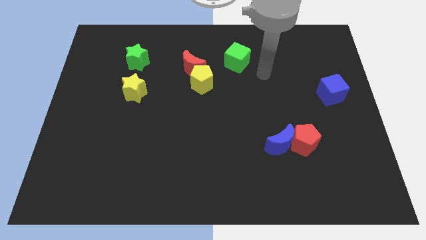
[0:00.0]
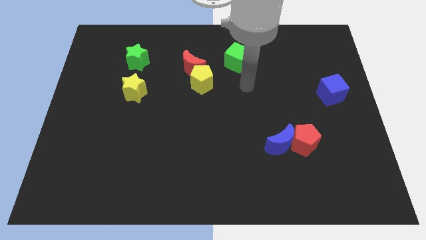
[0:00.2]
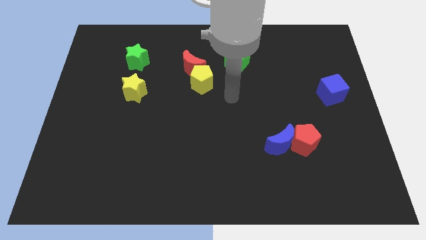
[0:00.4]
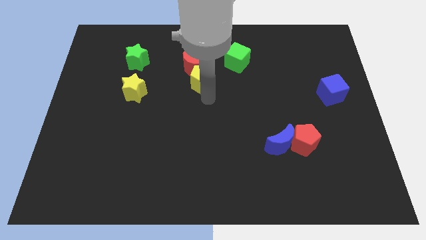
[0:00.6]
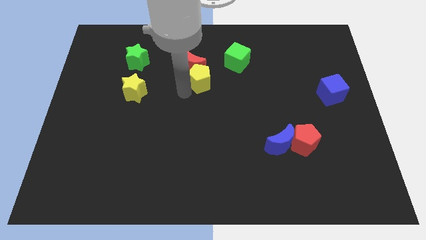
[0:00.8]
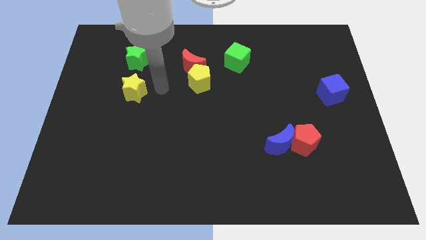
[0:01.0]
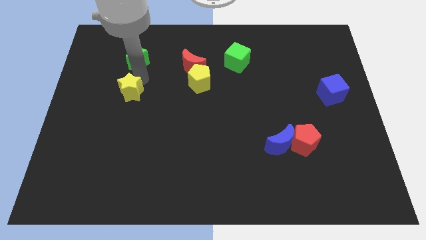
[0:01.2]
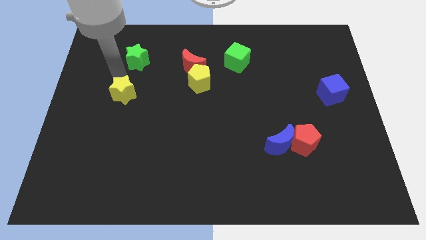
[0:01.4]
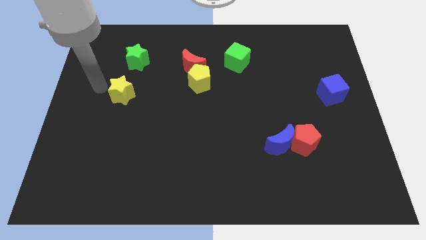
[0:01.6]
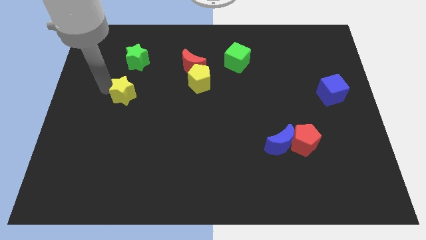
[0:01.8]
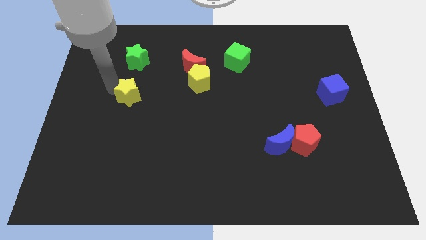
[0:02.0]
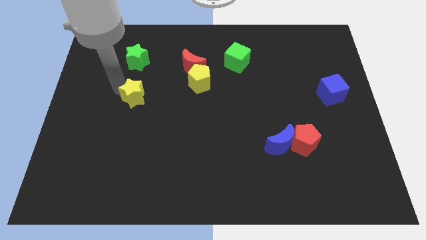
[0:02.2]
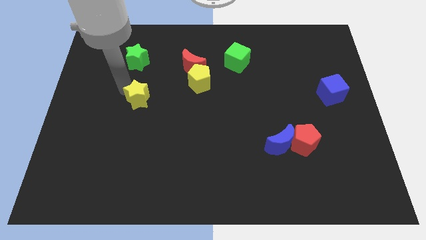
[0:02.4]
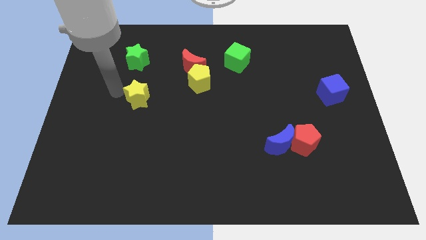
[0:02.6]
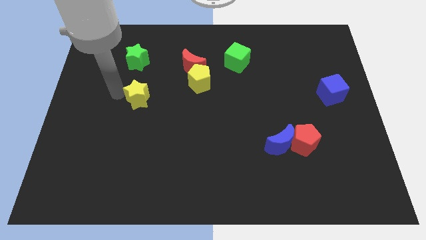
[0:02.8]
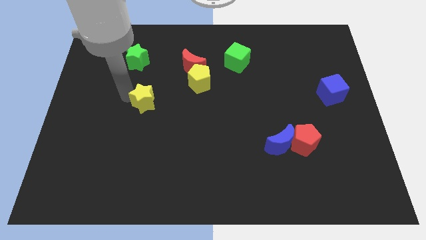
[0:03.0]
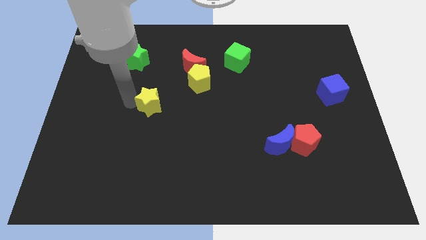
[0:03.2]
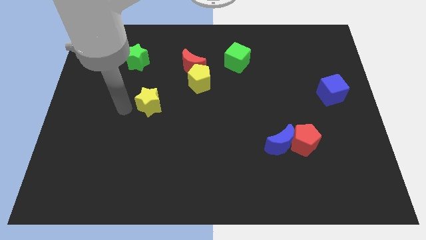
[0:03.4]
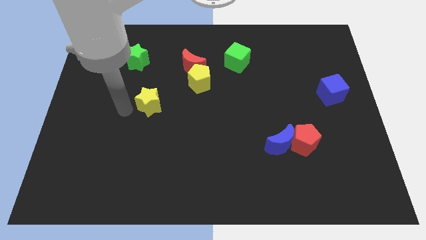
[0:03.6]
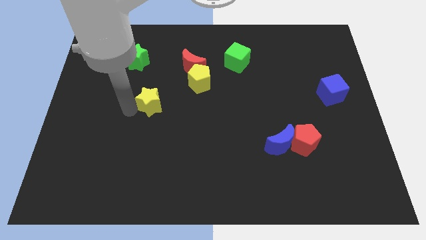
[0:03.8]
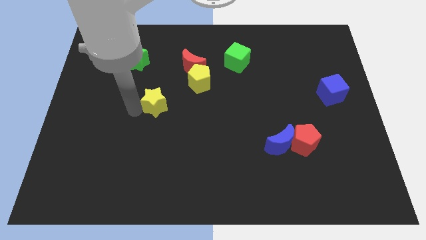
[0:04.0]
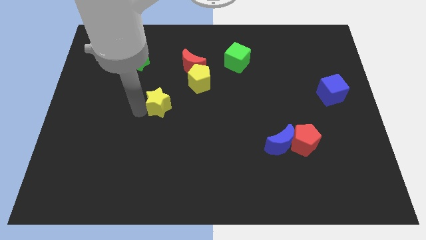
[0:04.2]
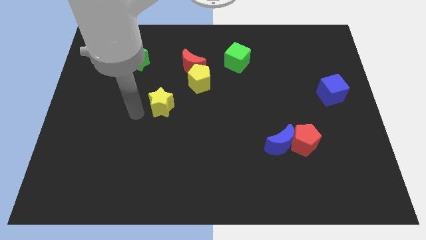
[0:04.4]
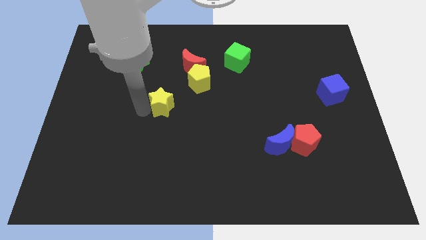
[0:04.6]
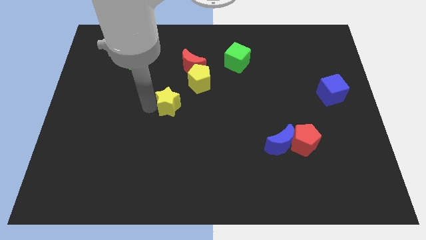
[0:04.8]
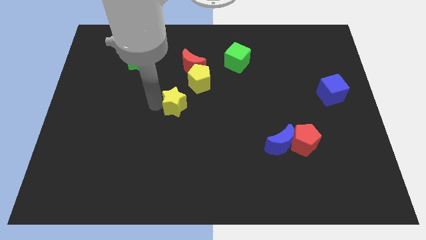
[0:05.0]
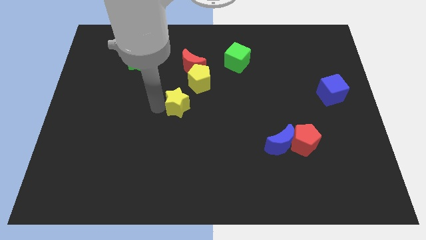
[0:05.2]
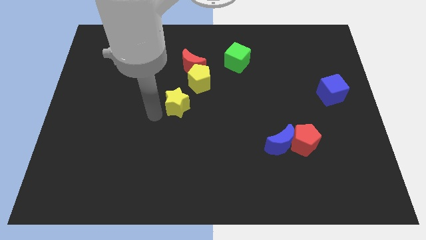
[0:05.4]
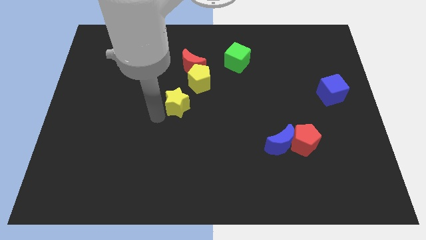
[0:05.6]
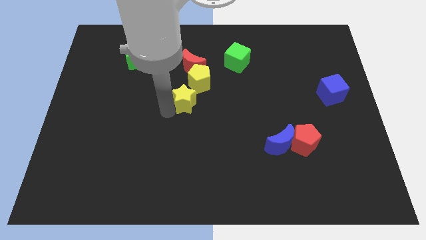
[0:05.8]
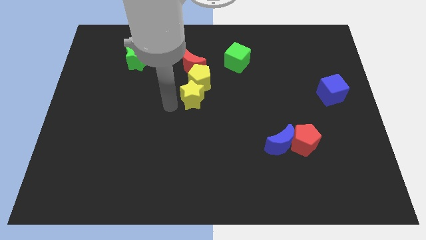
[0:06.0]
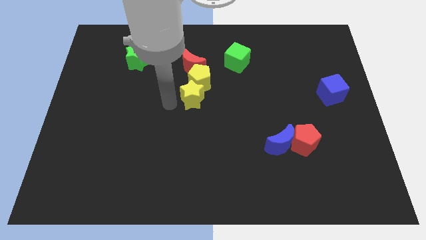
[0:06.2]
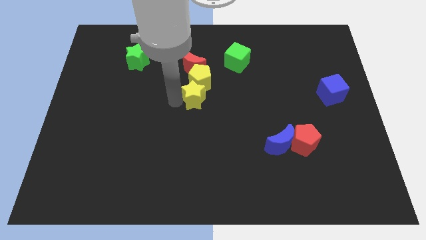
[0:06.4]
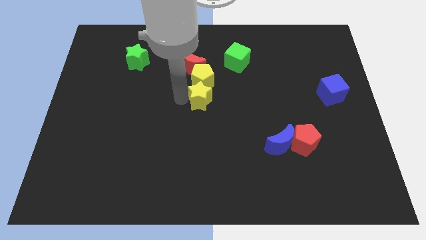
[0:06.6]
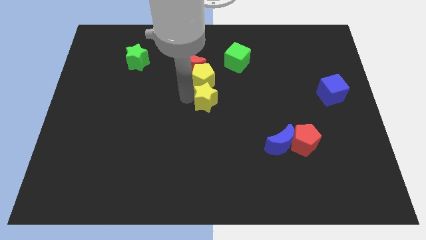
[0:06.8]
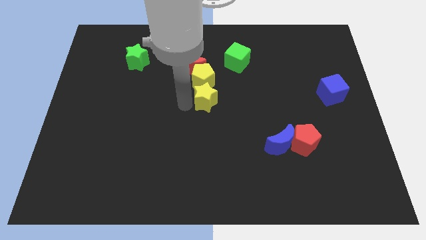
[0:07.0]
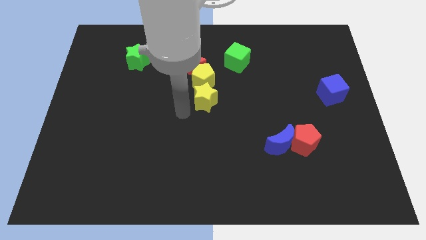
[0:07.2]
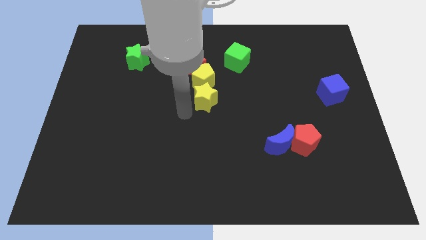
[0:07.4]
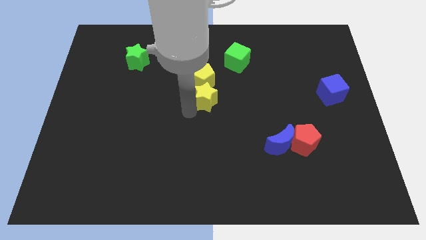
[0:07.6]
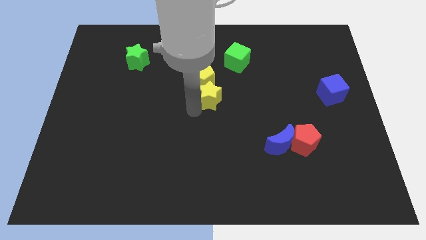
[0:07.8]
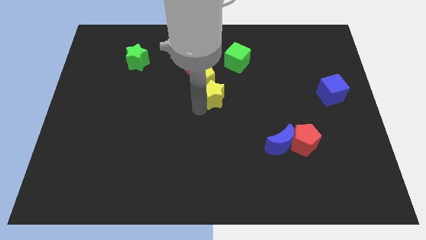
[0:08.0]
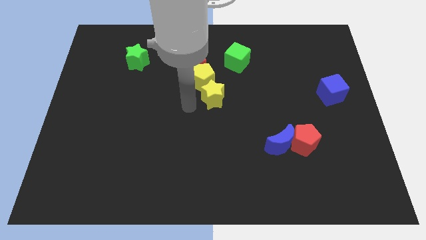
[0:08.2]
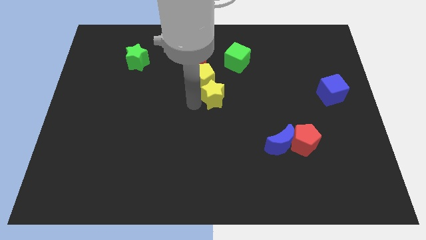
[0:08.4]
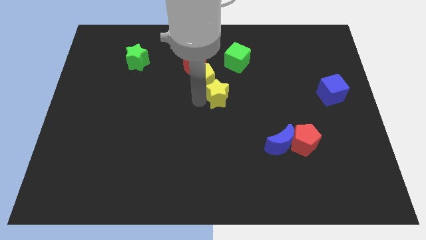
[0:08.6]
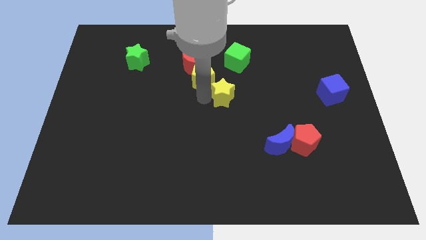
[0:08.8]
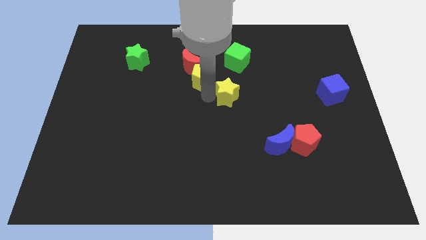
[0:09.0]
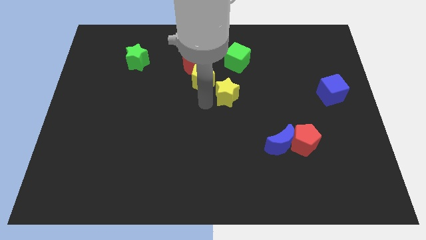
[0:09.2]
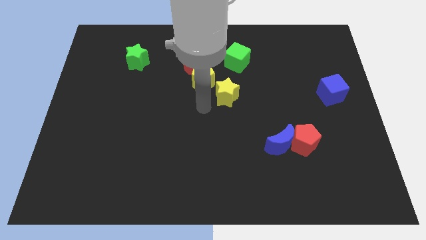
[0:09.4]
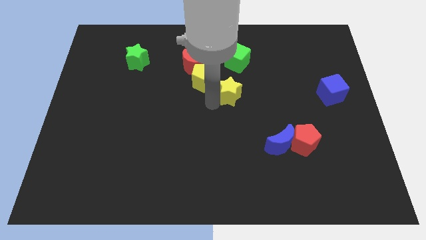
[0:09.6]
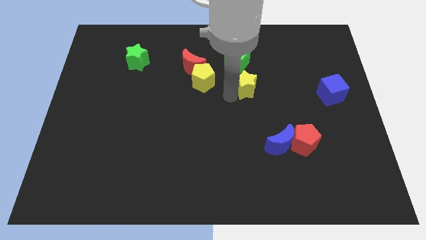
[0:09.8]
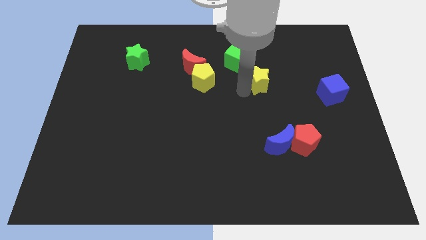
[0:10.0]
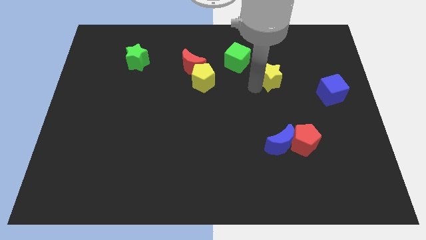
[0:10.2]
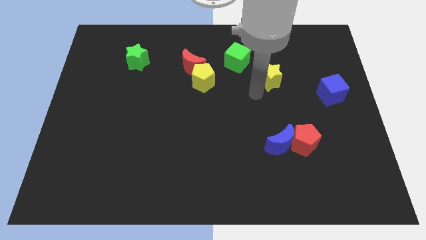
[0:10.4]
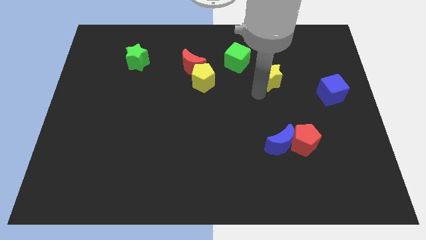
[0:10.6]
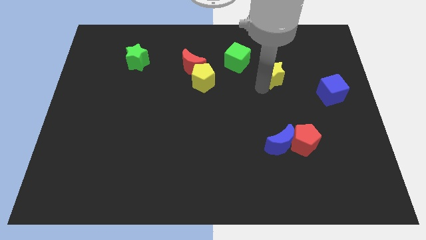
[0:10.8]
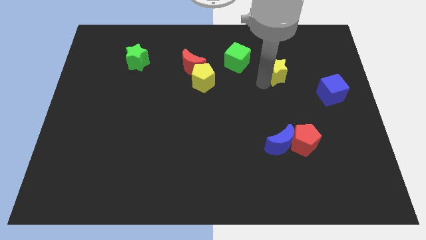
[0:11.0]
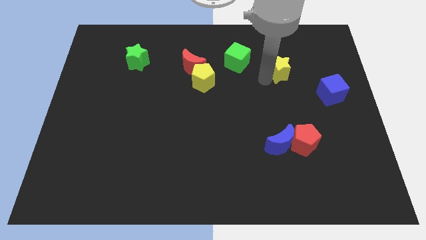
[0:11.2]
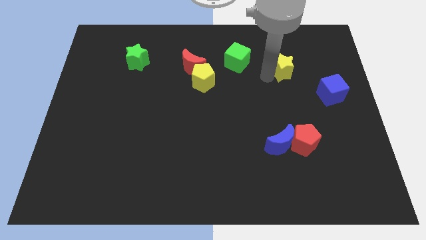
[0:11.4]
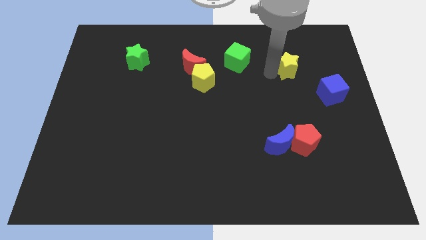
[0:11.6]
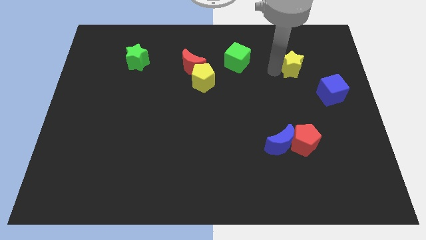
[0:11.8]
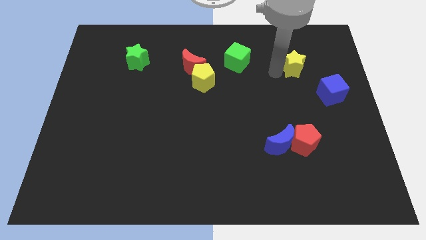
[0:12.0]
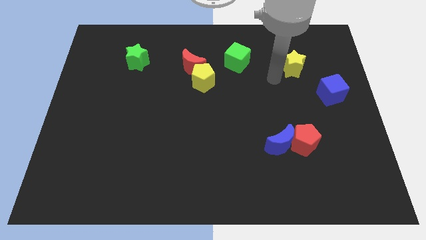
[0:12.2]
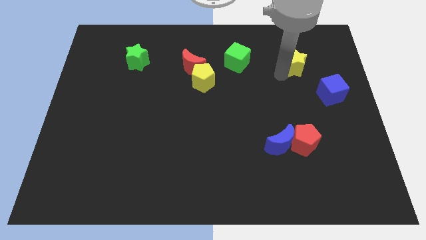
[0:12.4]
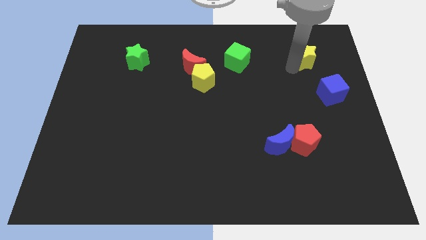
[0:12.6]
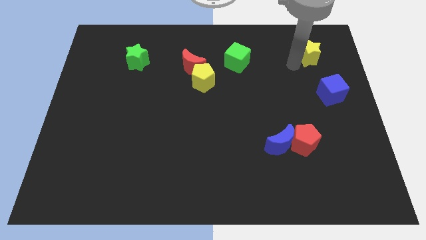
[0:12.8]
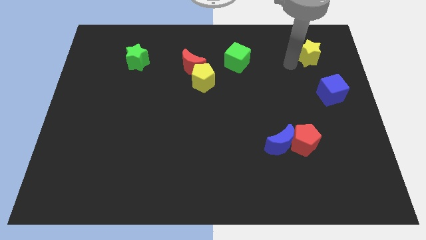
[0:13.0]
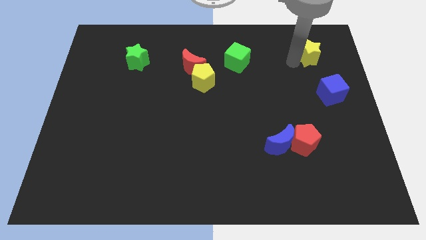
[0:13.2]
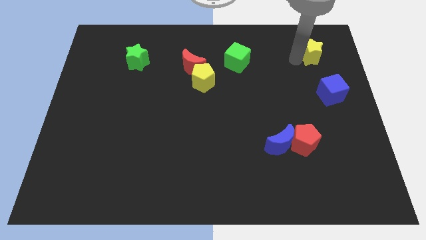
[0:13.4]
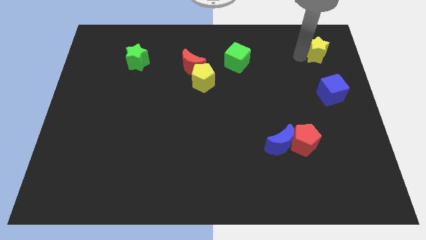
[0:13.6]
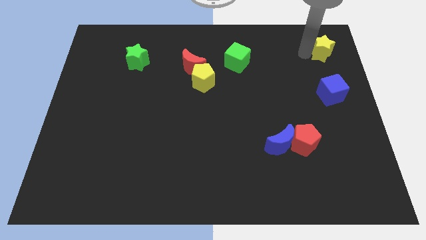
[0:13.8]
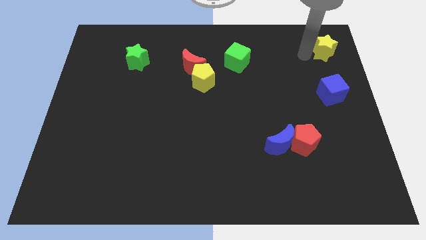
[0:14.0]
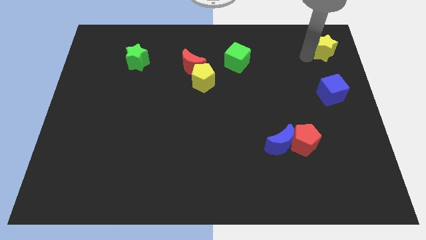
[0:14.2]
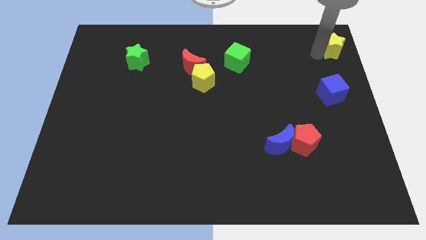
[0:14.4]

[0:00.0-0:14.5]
slide the yellow star to the upper right corner

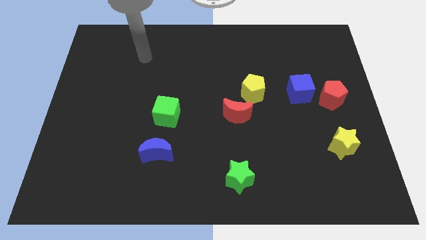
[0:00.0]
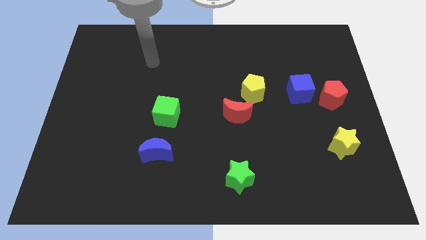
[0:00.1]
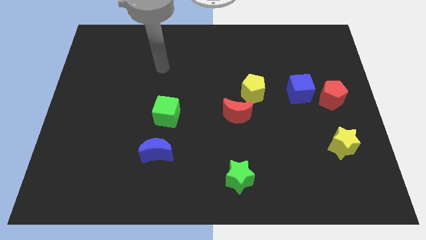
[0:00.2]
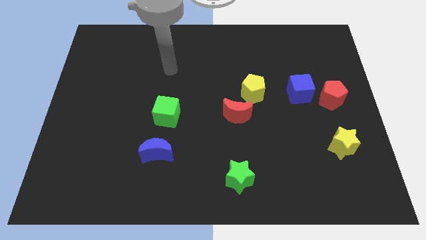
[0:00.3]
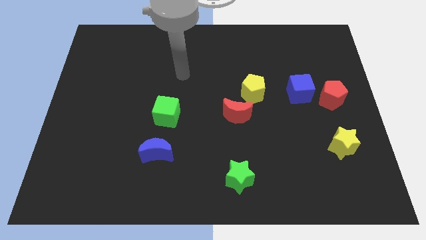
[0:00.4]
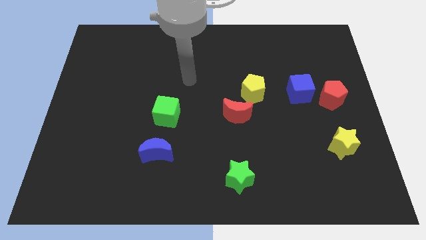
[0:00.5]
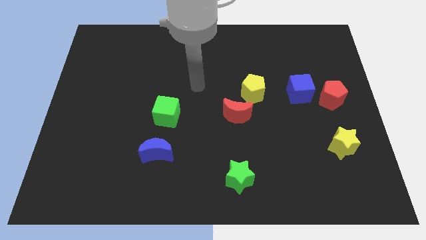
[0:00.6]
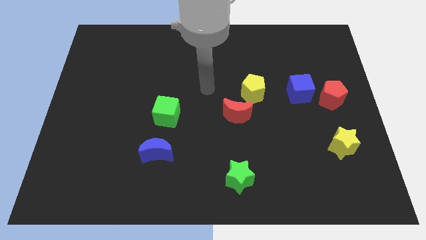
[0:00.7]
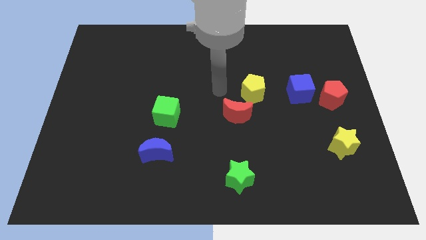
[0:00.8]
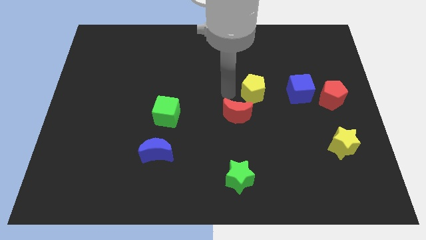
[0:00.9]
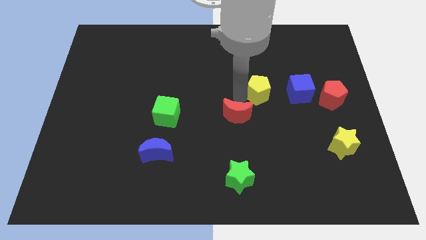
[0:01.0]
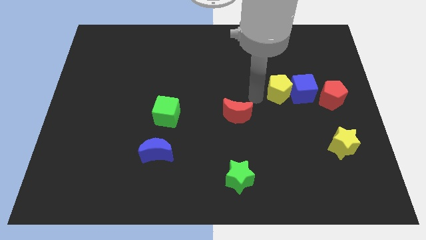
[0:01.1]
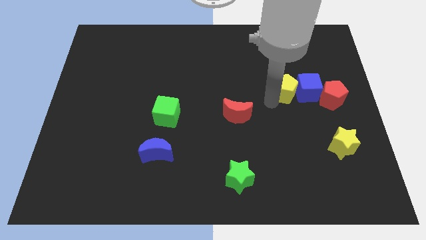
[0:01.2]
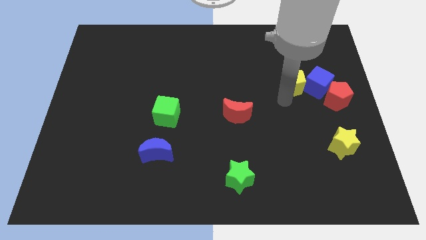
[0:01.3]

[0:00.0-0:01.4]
put the blue cube to the center right
